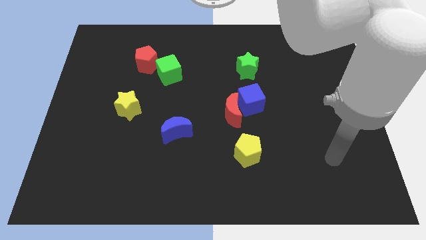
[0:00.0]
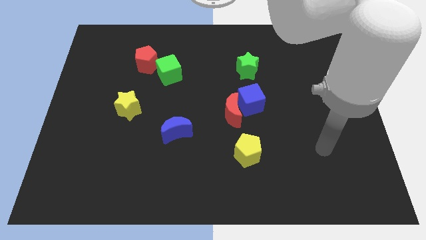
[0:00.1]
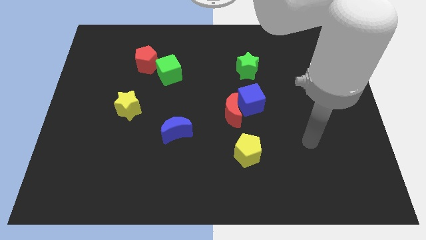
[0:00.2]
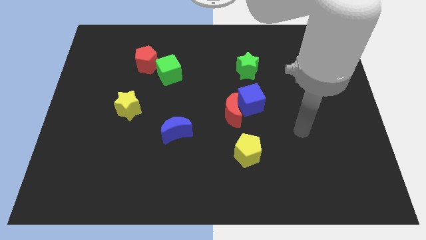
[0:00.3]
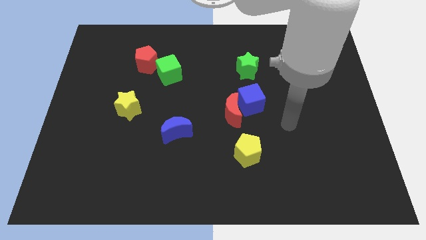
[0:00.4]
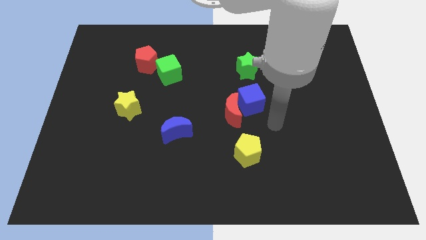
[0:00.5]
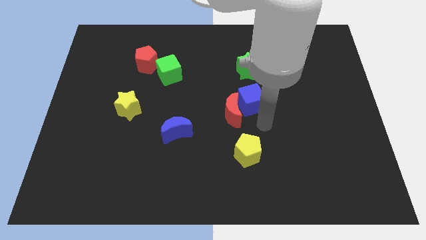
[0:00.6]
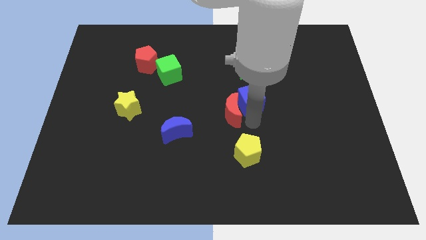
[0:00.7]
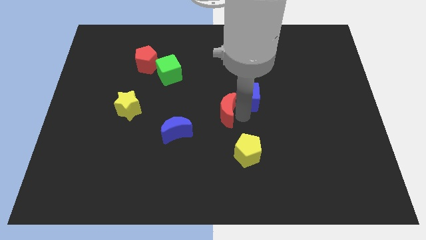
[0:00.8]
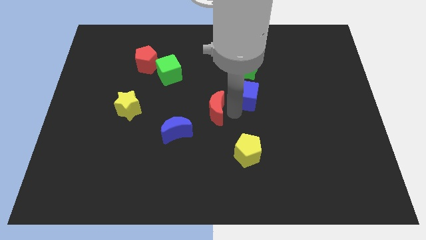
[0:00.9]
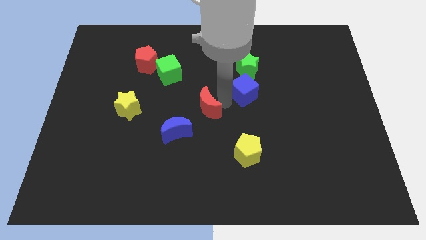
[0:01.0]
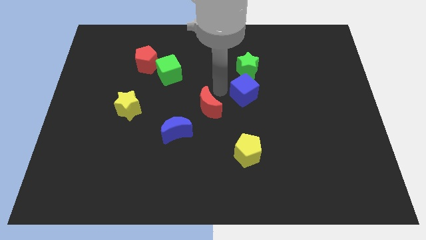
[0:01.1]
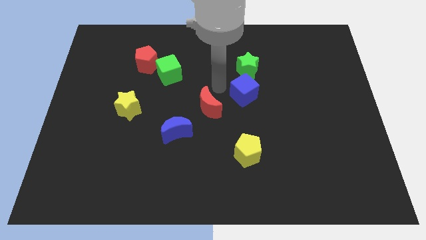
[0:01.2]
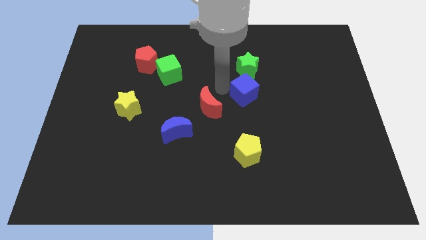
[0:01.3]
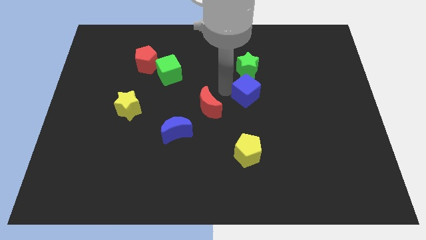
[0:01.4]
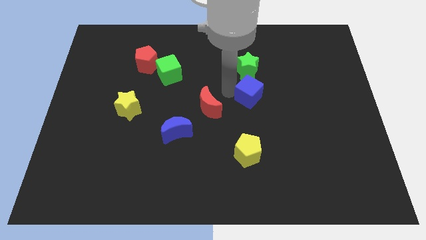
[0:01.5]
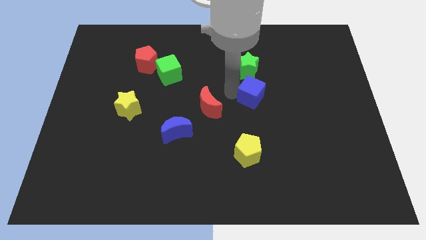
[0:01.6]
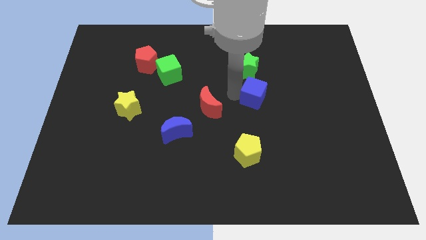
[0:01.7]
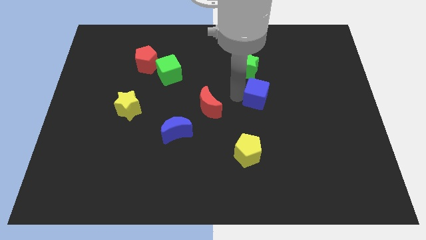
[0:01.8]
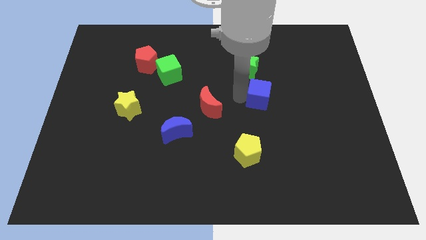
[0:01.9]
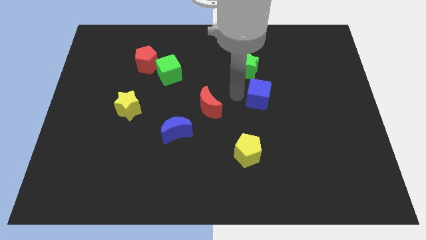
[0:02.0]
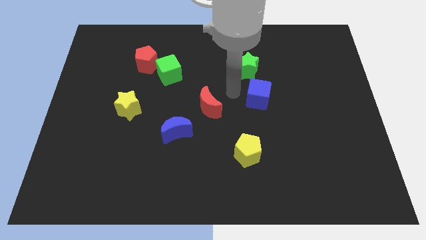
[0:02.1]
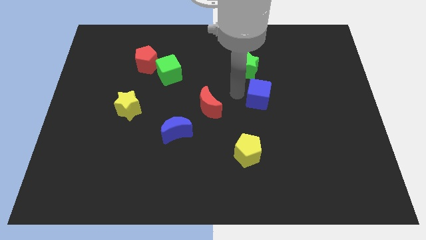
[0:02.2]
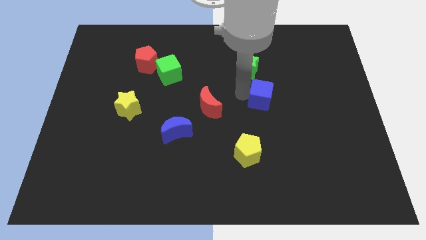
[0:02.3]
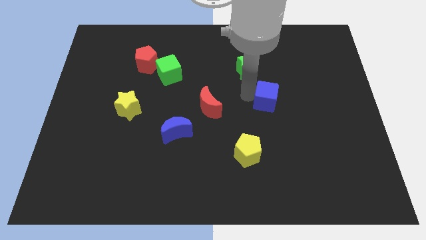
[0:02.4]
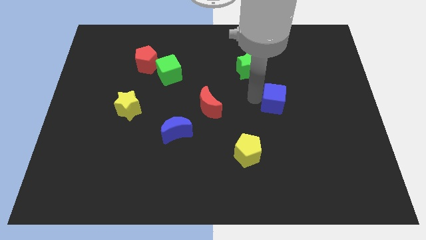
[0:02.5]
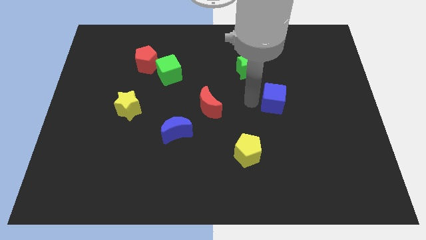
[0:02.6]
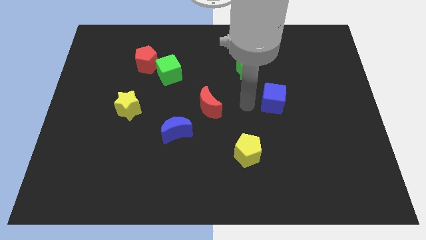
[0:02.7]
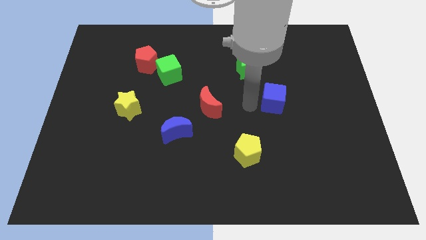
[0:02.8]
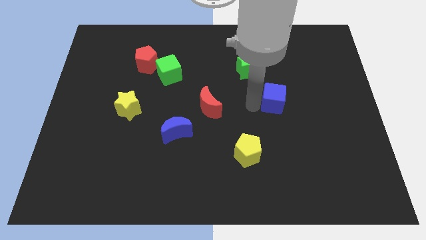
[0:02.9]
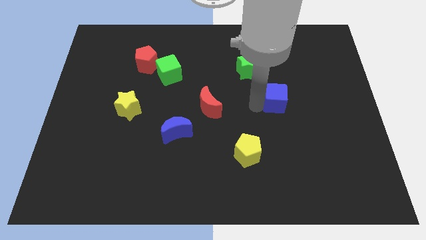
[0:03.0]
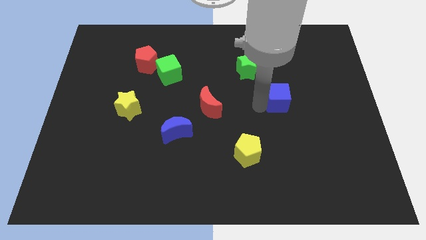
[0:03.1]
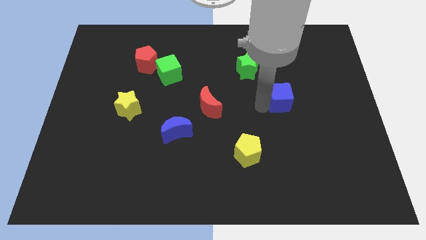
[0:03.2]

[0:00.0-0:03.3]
move the blue cube somewhat to the right

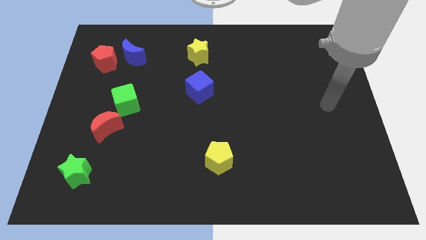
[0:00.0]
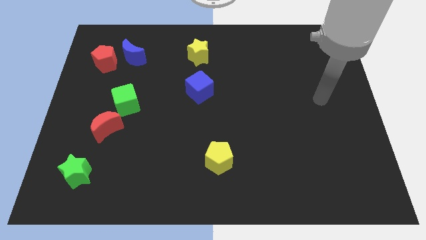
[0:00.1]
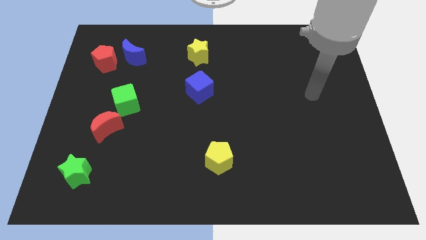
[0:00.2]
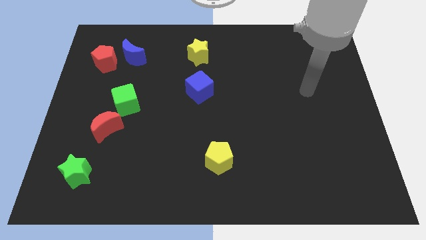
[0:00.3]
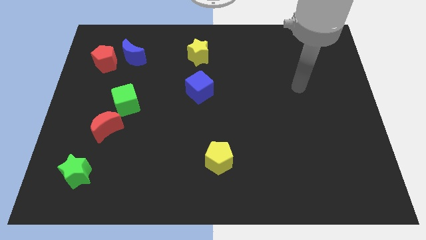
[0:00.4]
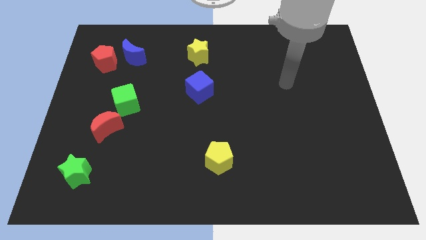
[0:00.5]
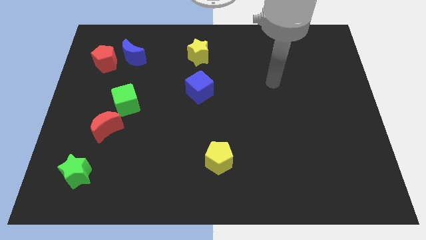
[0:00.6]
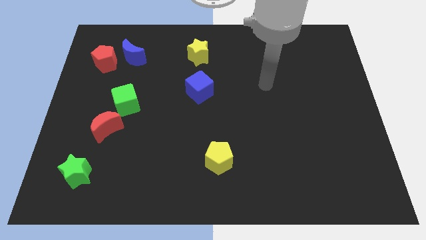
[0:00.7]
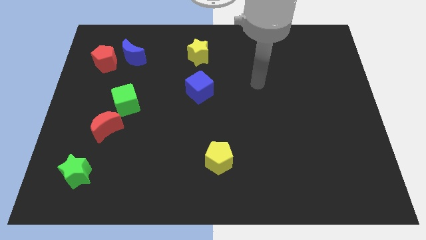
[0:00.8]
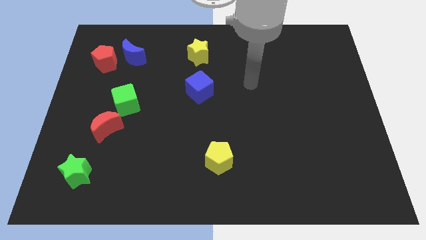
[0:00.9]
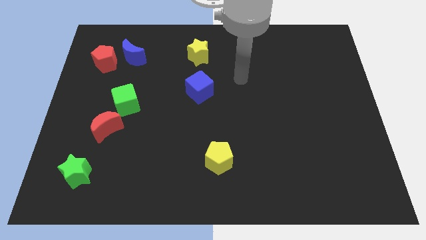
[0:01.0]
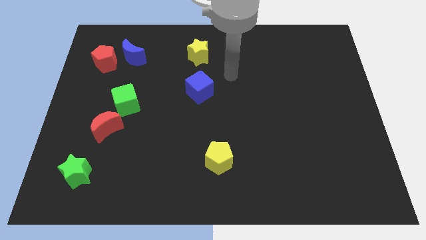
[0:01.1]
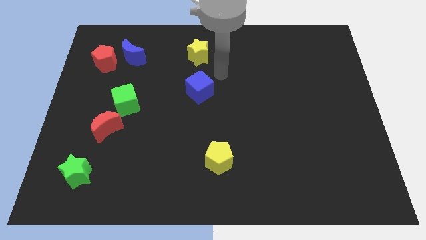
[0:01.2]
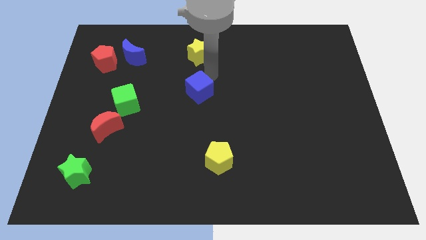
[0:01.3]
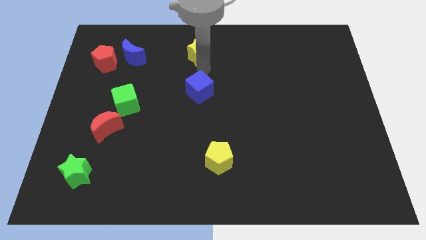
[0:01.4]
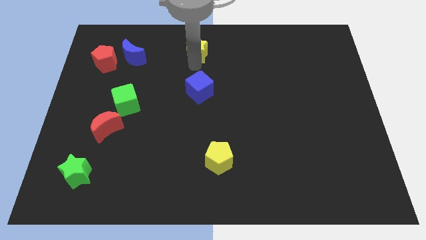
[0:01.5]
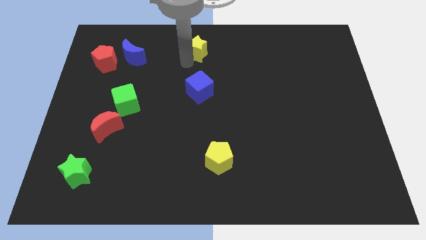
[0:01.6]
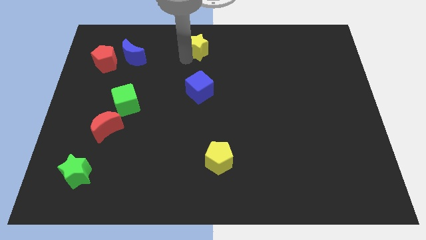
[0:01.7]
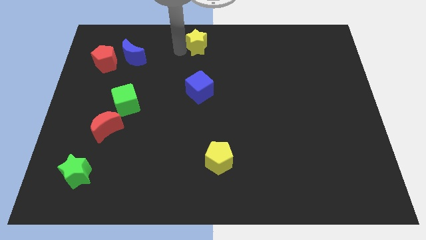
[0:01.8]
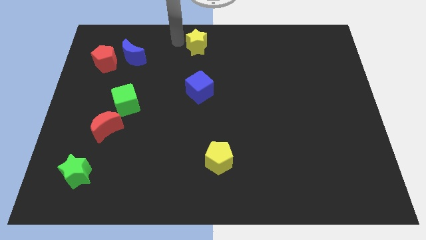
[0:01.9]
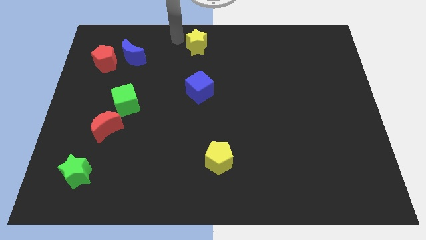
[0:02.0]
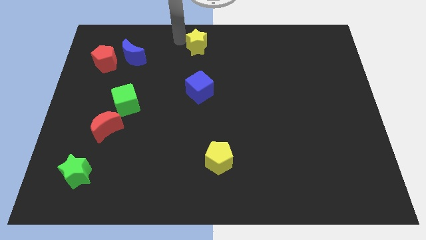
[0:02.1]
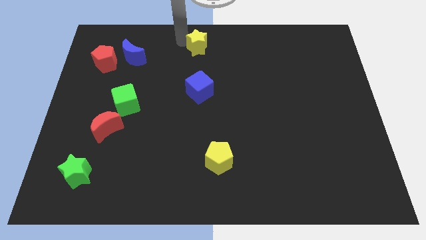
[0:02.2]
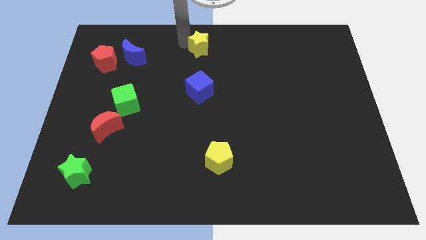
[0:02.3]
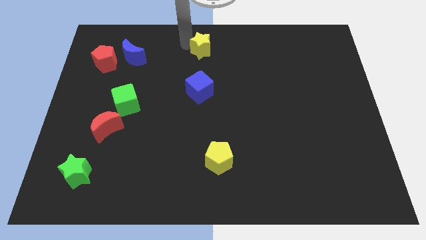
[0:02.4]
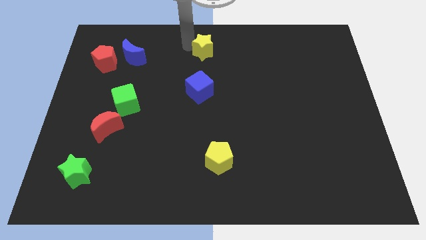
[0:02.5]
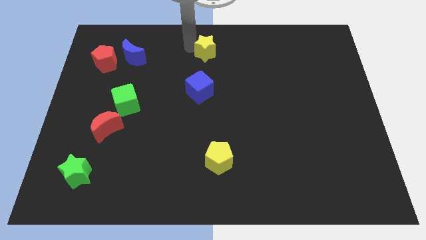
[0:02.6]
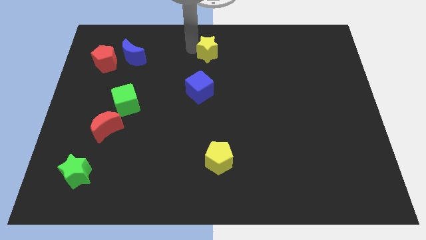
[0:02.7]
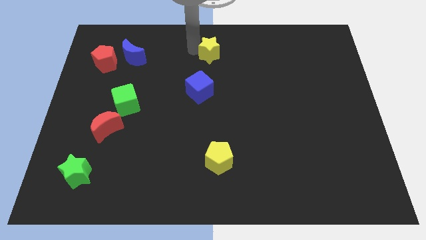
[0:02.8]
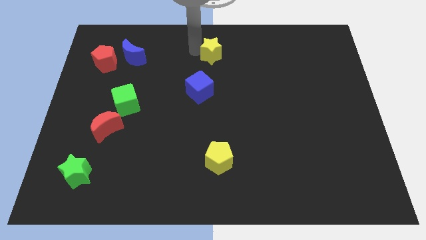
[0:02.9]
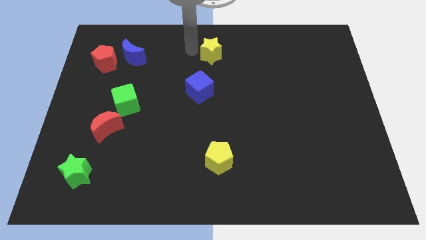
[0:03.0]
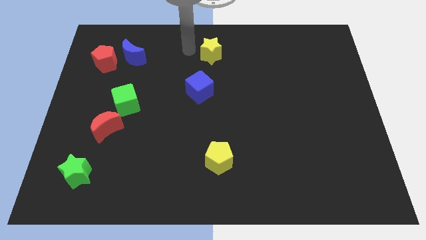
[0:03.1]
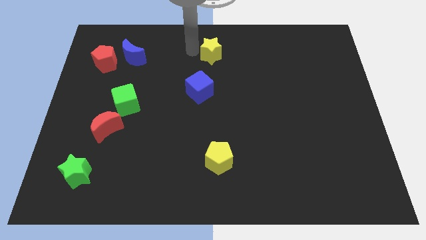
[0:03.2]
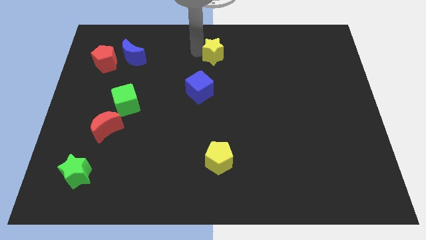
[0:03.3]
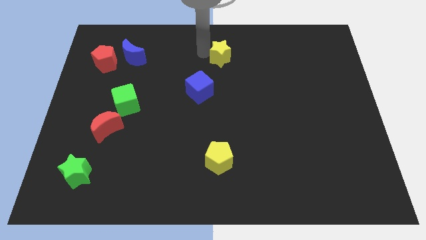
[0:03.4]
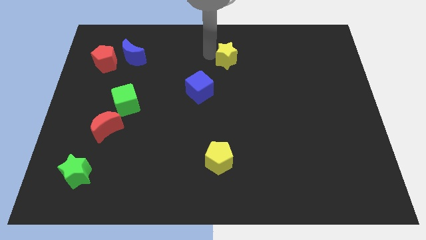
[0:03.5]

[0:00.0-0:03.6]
slightly push the yellow star right

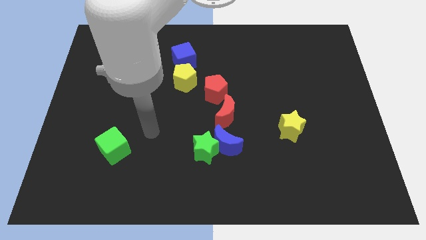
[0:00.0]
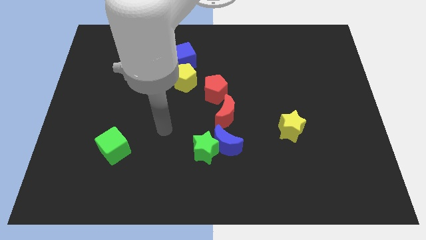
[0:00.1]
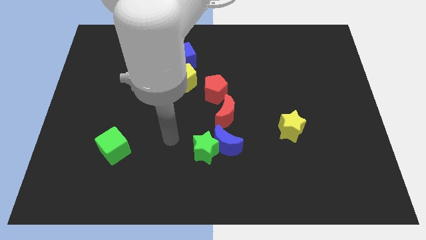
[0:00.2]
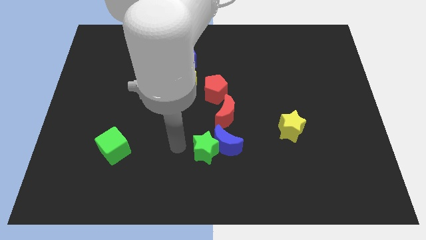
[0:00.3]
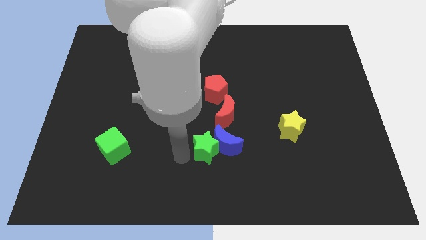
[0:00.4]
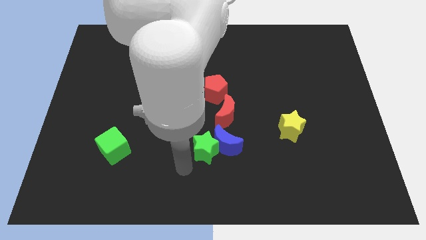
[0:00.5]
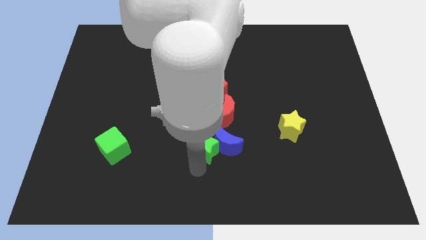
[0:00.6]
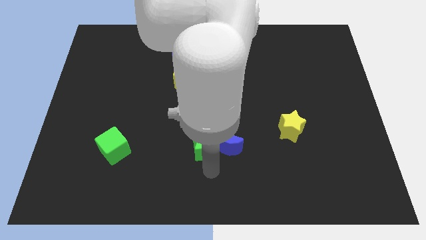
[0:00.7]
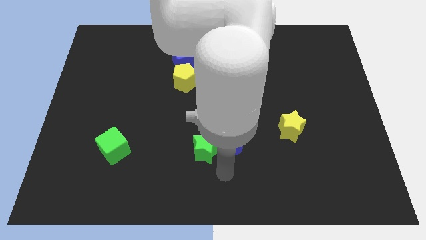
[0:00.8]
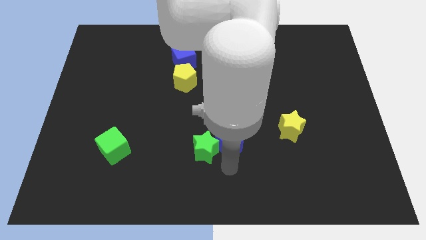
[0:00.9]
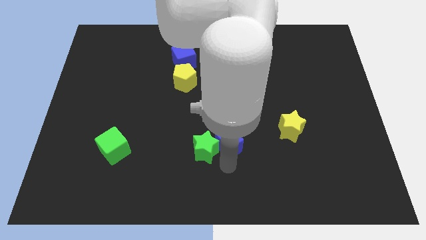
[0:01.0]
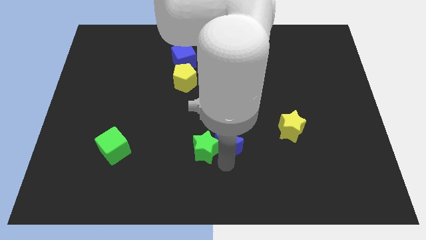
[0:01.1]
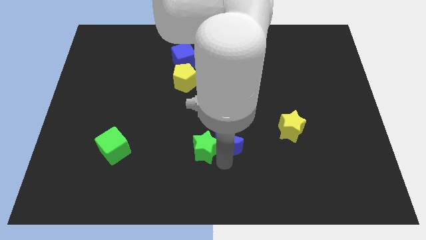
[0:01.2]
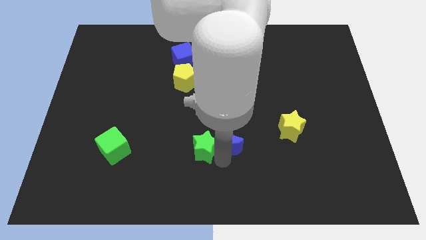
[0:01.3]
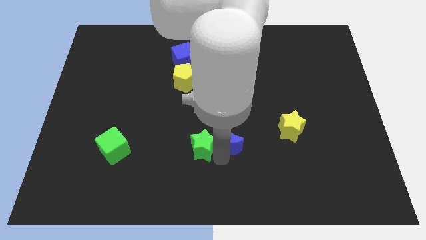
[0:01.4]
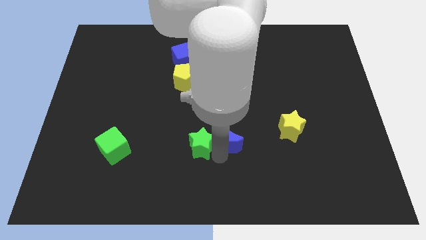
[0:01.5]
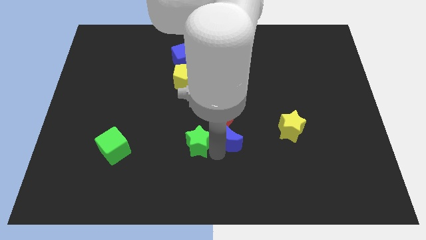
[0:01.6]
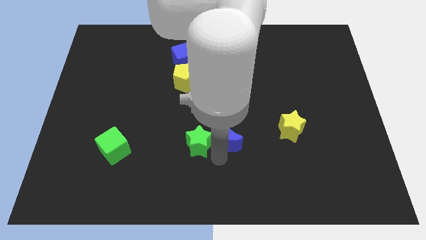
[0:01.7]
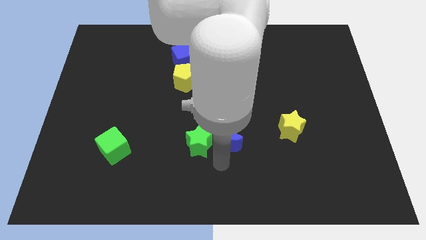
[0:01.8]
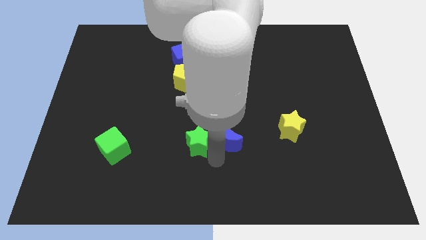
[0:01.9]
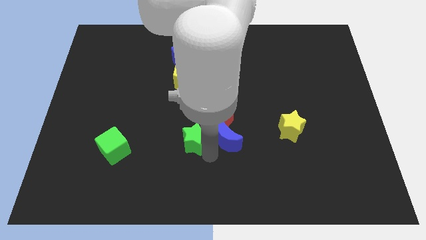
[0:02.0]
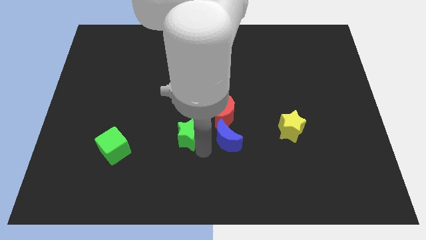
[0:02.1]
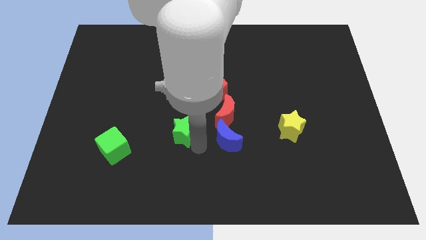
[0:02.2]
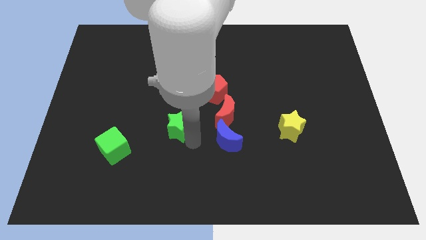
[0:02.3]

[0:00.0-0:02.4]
slide the green star a bit upwards and then to the left
